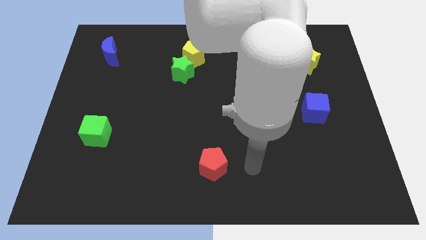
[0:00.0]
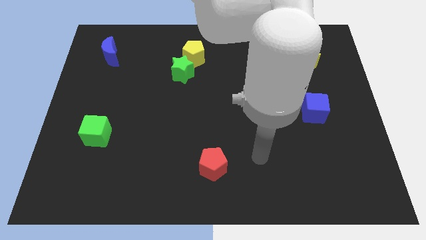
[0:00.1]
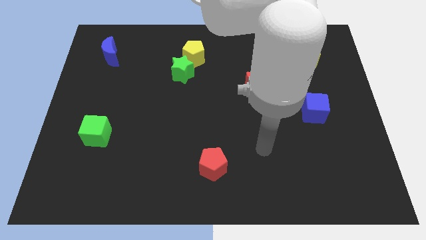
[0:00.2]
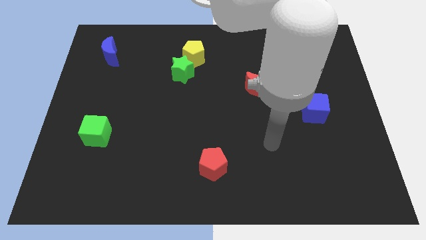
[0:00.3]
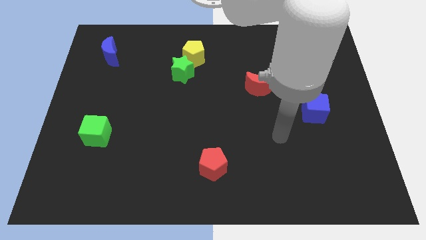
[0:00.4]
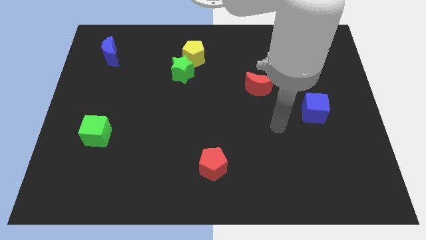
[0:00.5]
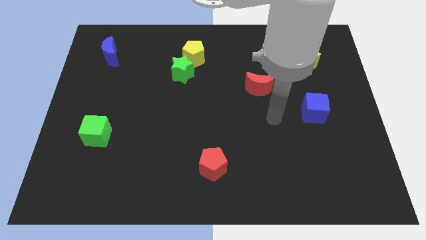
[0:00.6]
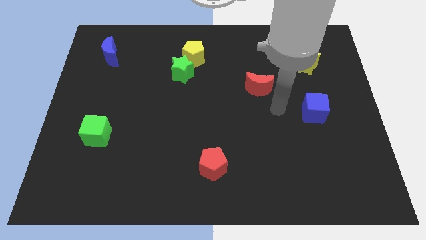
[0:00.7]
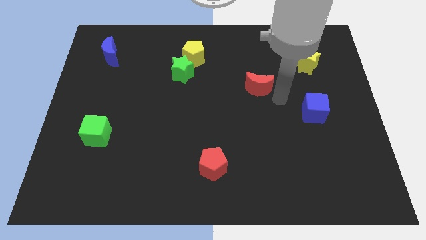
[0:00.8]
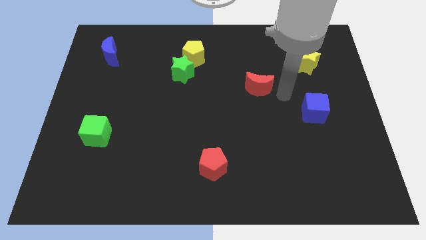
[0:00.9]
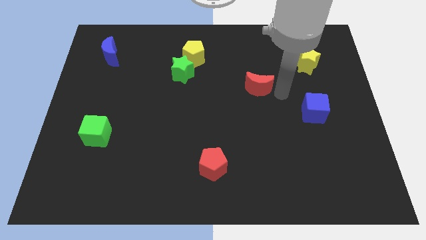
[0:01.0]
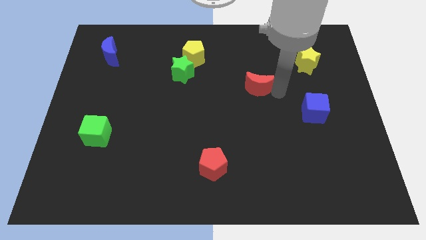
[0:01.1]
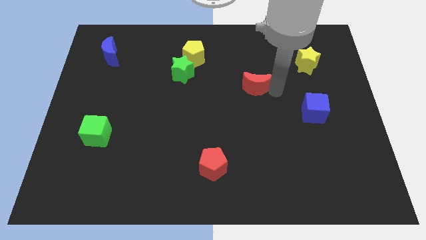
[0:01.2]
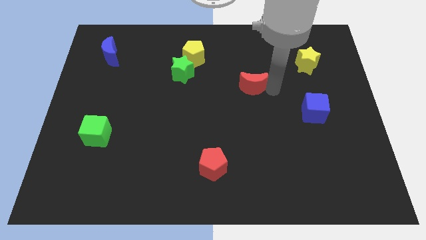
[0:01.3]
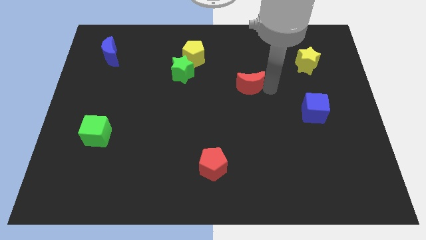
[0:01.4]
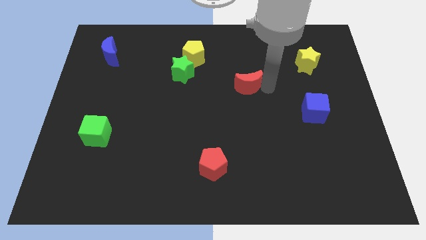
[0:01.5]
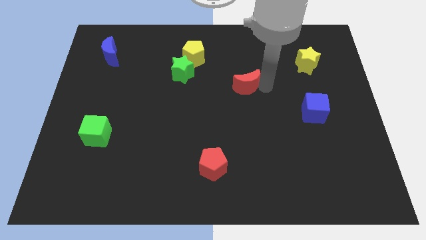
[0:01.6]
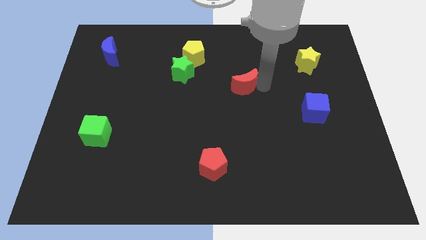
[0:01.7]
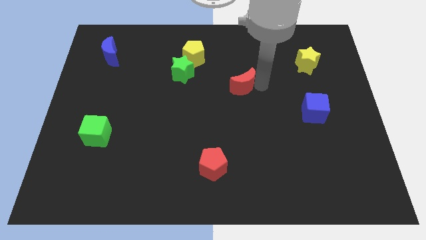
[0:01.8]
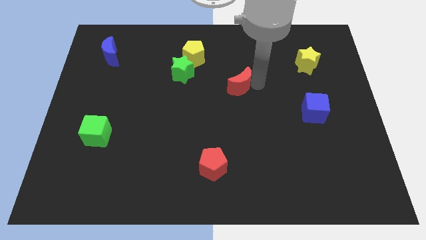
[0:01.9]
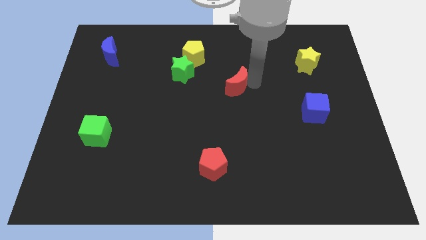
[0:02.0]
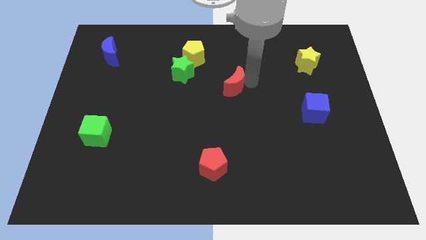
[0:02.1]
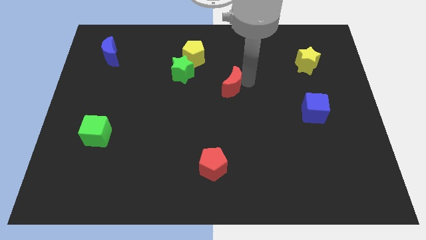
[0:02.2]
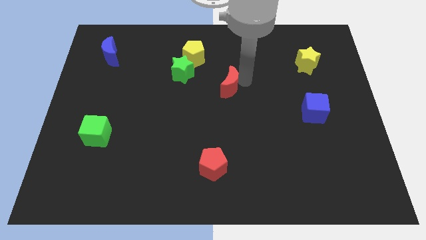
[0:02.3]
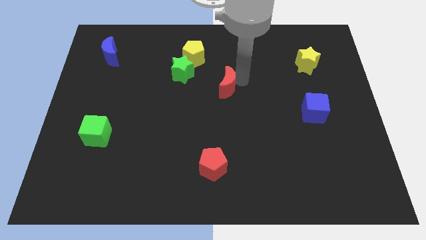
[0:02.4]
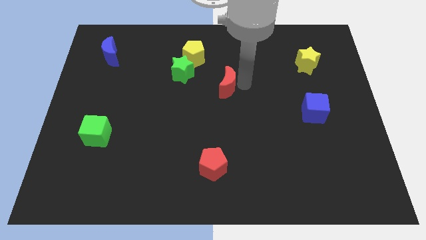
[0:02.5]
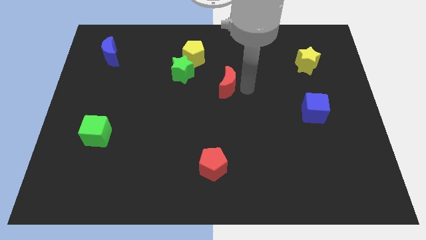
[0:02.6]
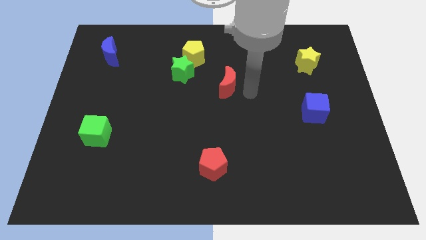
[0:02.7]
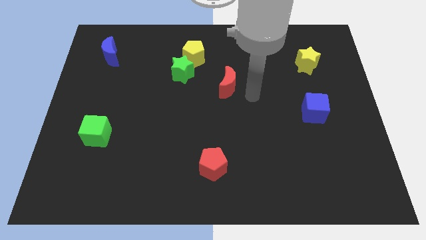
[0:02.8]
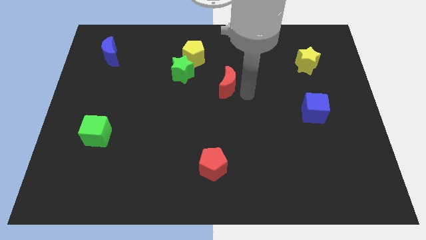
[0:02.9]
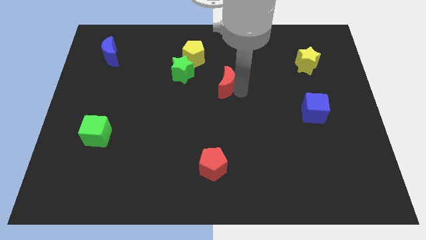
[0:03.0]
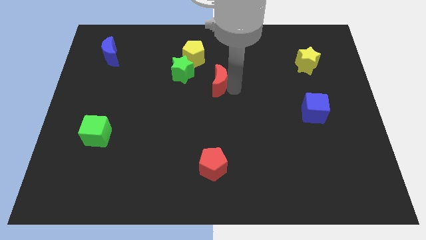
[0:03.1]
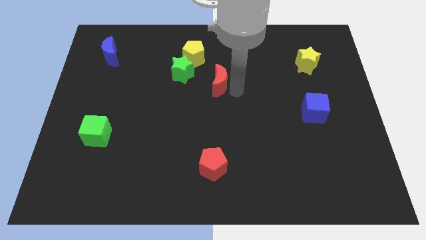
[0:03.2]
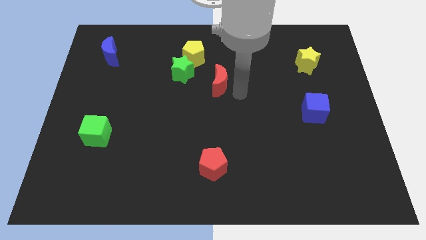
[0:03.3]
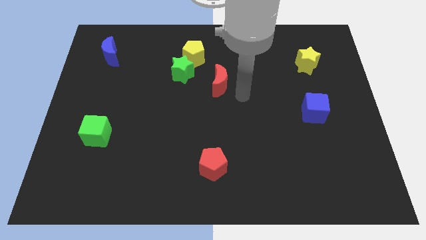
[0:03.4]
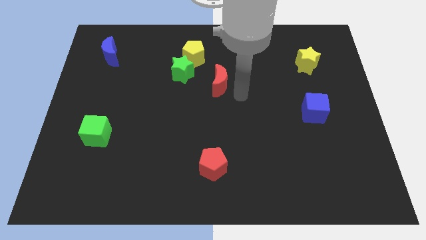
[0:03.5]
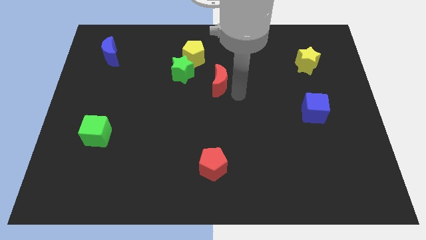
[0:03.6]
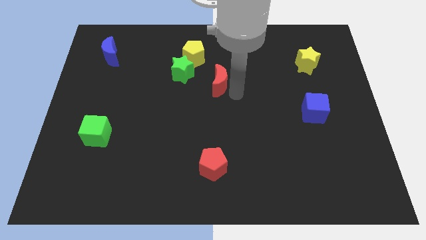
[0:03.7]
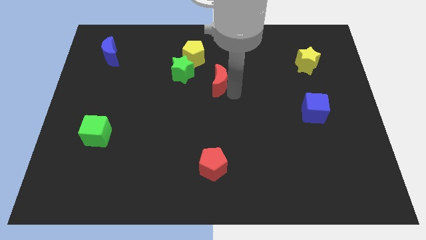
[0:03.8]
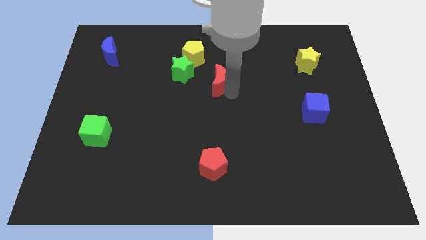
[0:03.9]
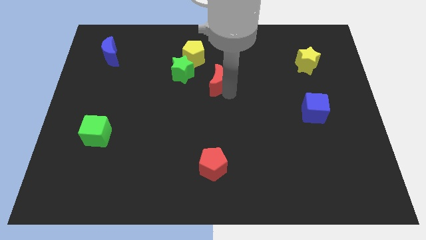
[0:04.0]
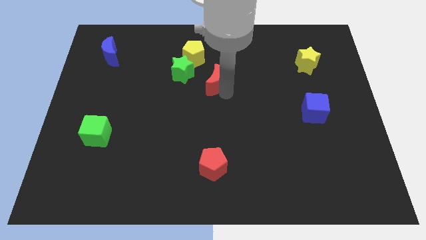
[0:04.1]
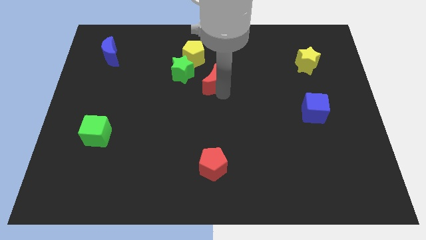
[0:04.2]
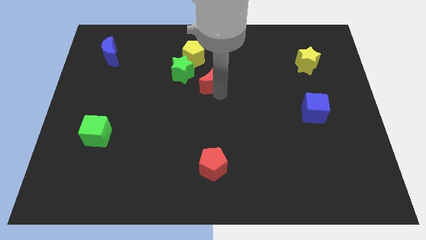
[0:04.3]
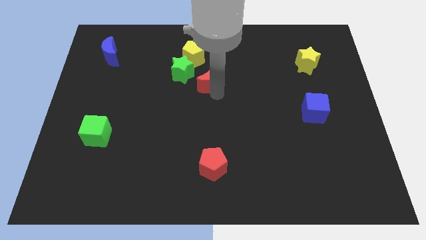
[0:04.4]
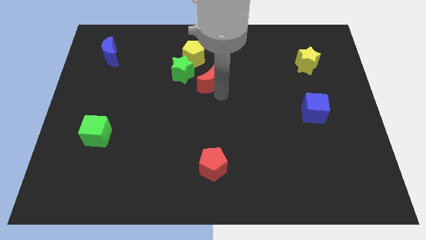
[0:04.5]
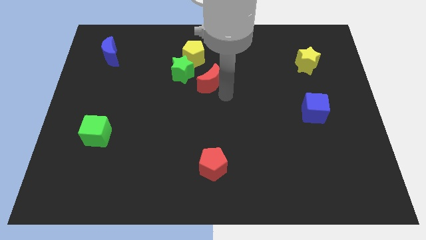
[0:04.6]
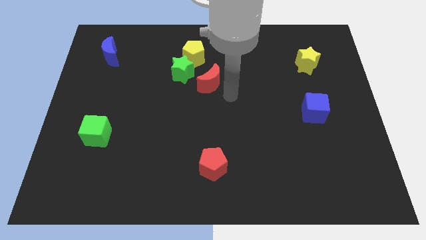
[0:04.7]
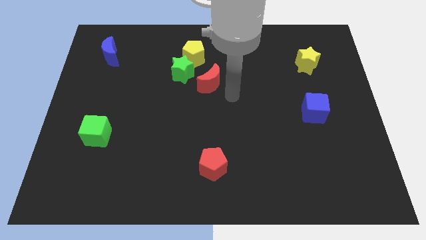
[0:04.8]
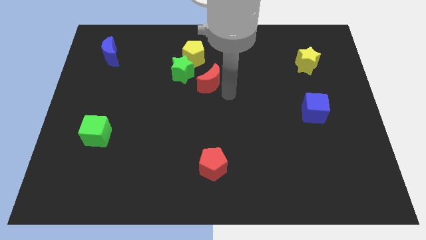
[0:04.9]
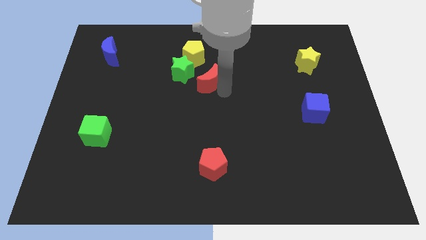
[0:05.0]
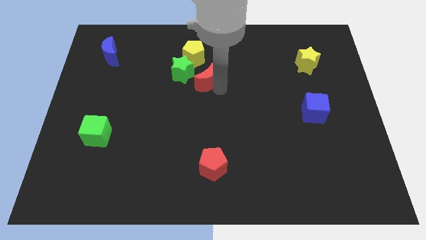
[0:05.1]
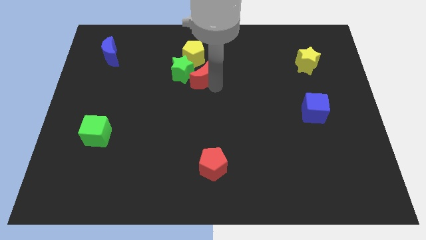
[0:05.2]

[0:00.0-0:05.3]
push the red moon next to the green star

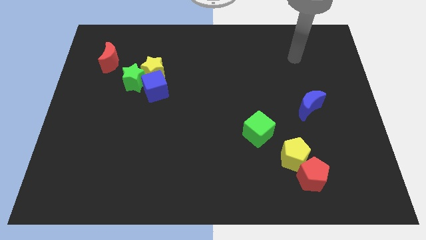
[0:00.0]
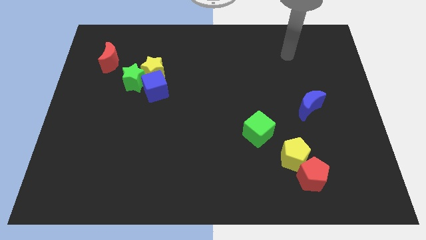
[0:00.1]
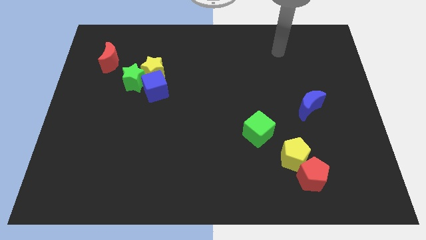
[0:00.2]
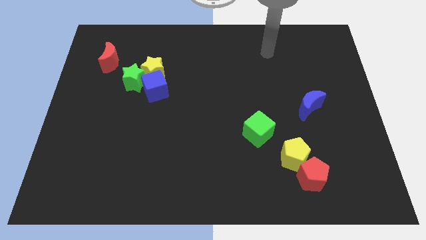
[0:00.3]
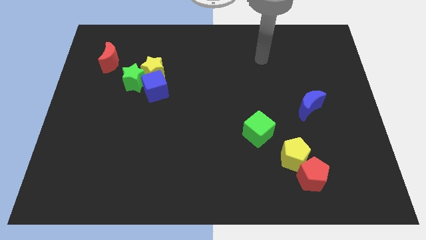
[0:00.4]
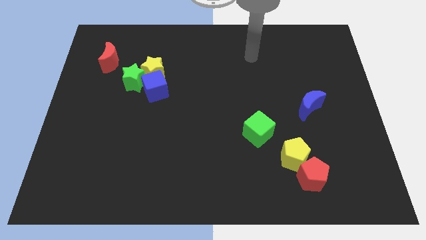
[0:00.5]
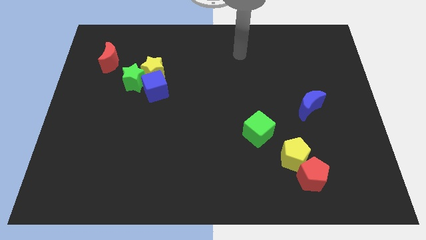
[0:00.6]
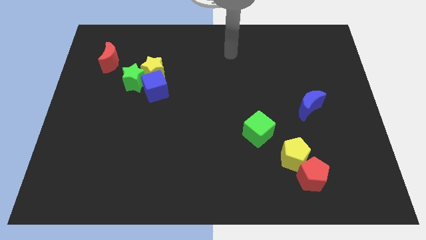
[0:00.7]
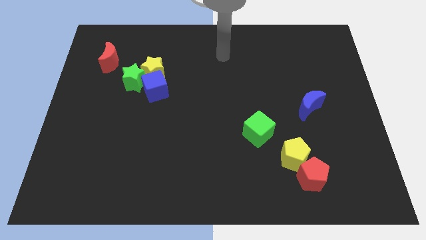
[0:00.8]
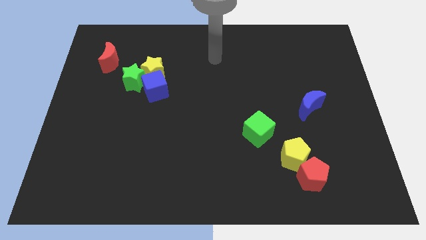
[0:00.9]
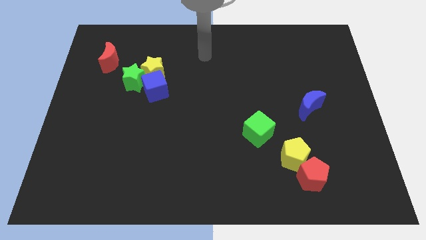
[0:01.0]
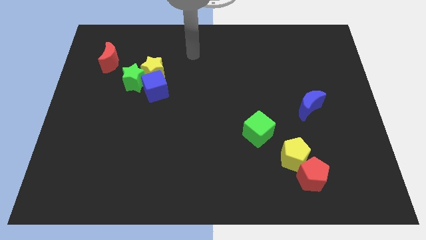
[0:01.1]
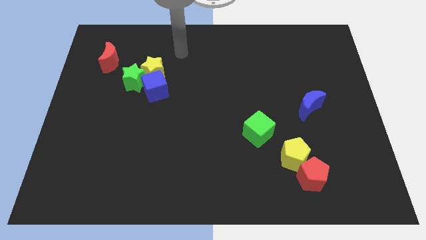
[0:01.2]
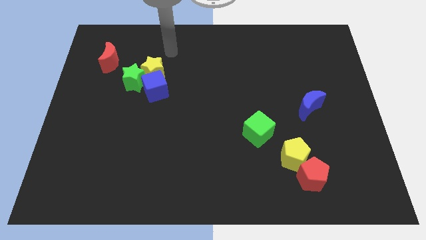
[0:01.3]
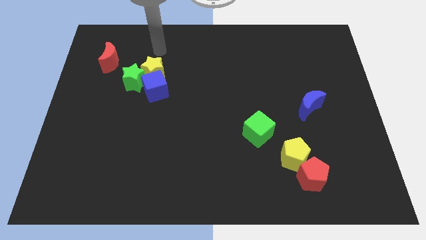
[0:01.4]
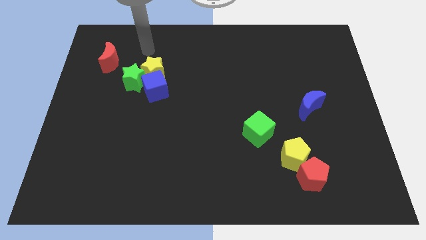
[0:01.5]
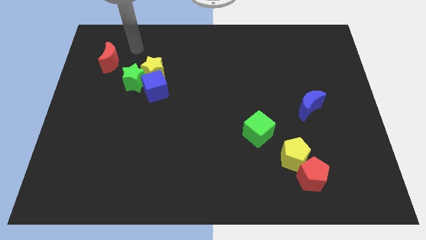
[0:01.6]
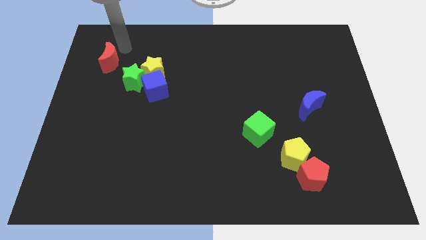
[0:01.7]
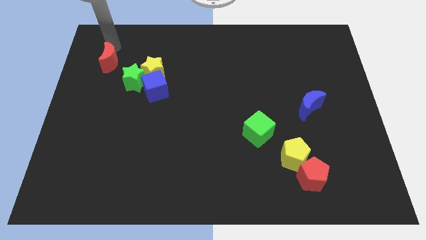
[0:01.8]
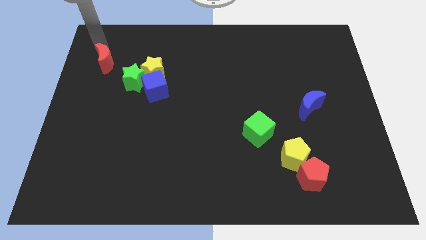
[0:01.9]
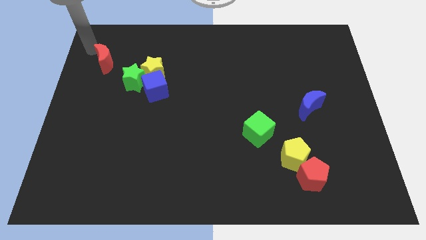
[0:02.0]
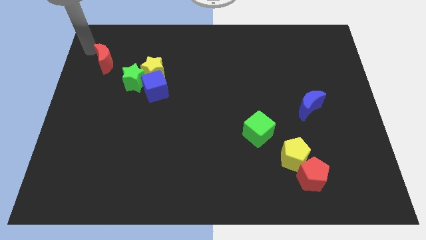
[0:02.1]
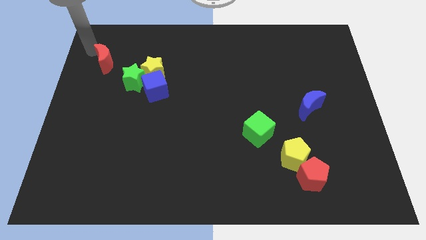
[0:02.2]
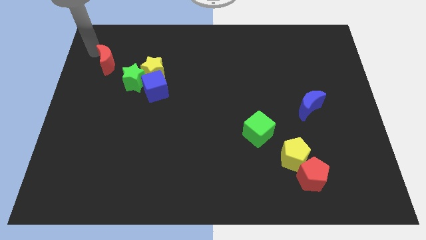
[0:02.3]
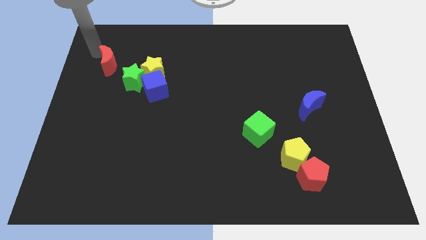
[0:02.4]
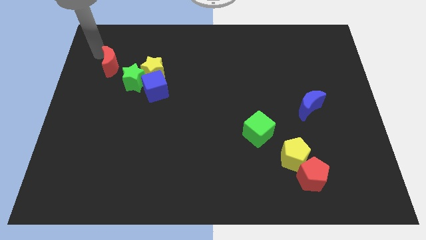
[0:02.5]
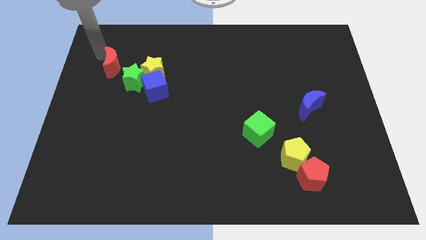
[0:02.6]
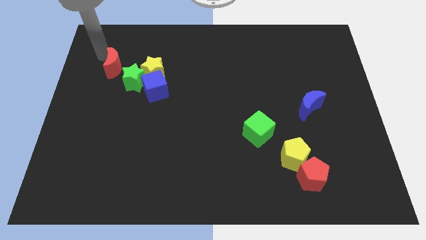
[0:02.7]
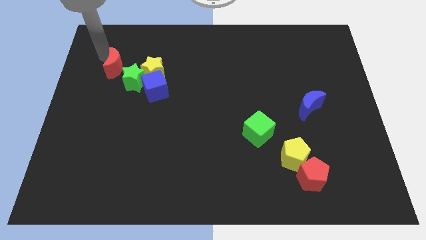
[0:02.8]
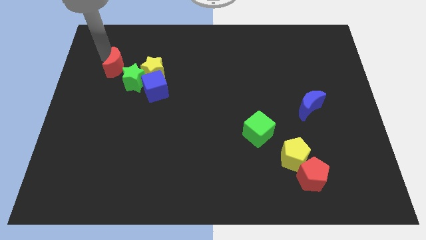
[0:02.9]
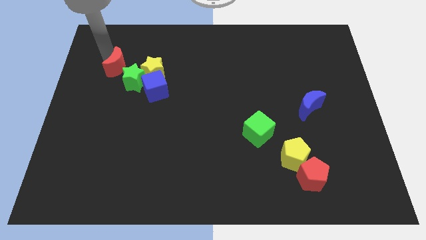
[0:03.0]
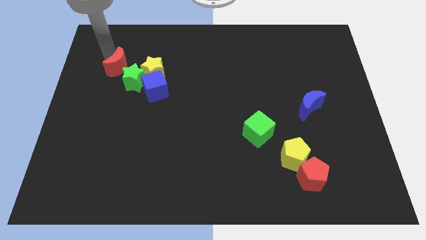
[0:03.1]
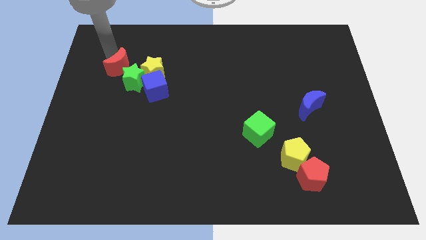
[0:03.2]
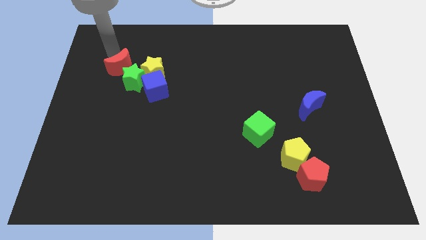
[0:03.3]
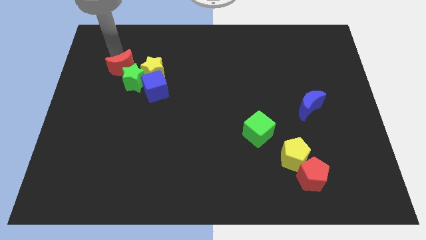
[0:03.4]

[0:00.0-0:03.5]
move the red moon next to the green star
